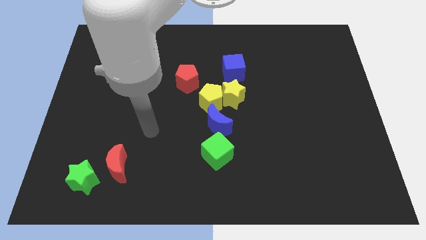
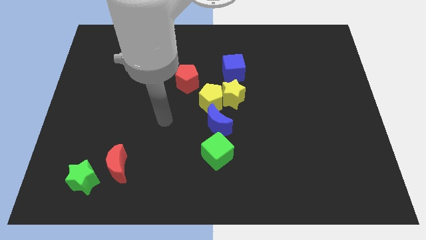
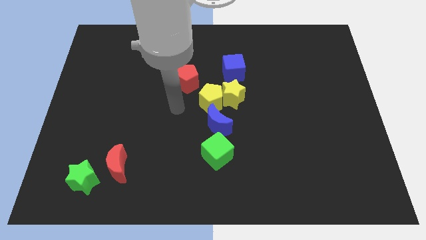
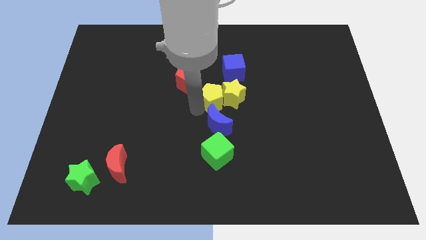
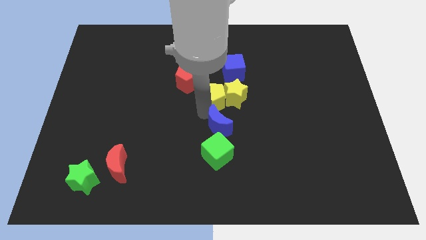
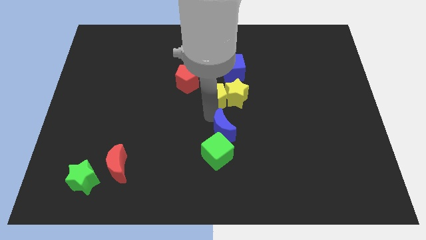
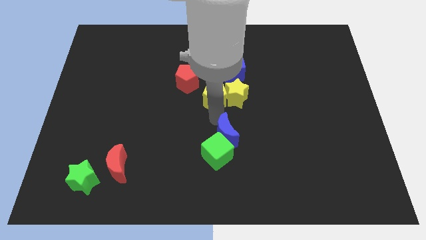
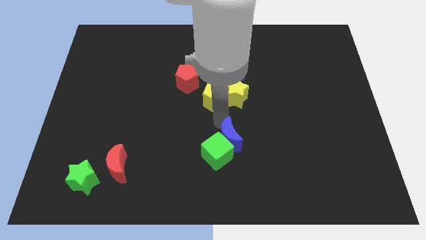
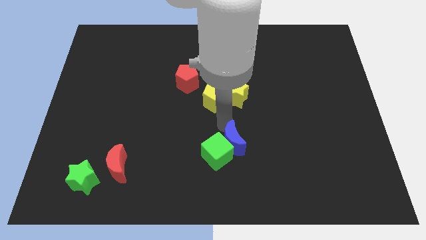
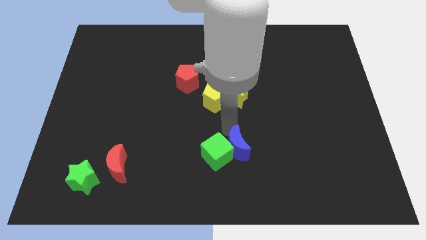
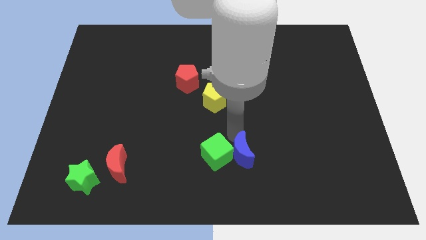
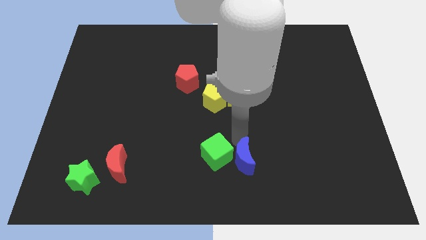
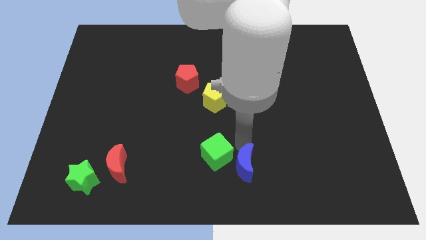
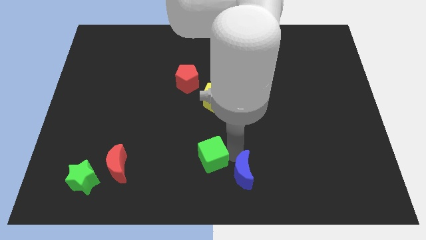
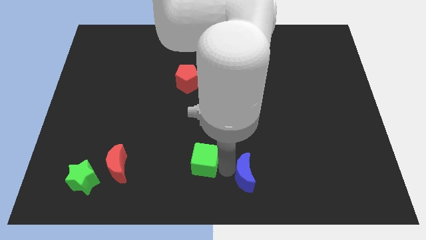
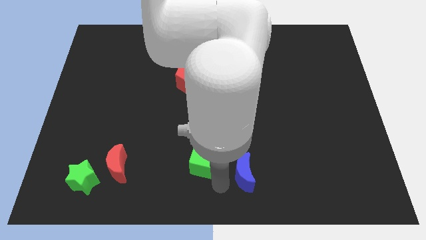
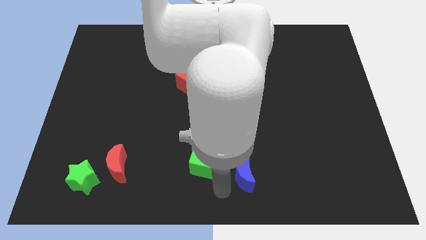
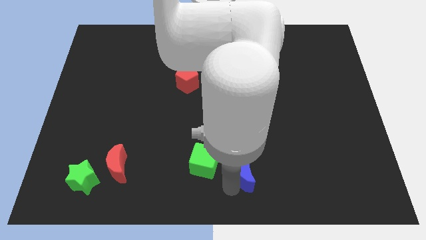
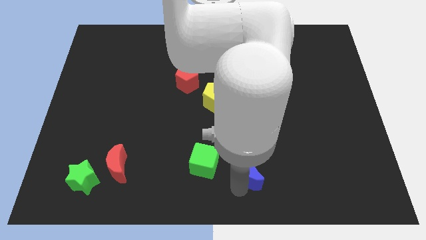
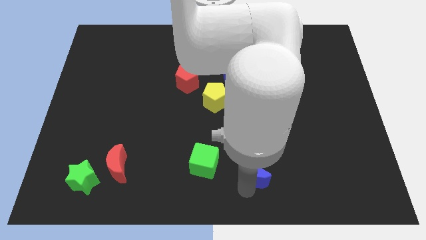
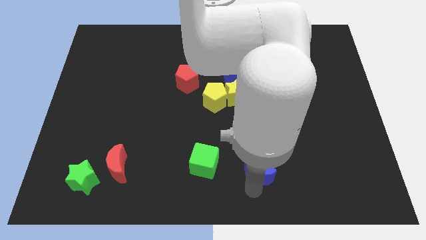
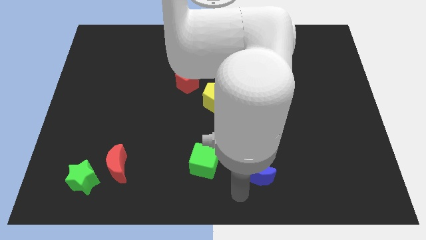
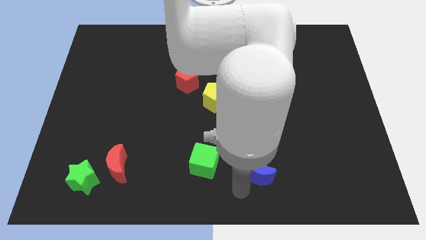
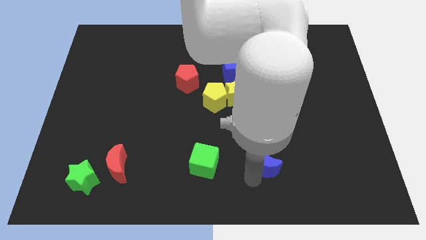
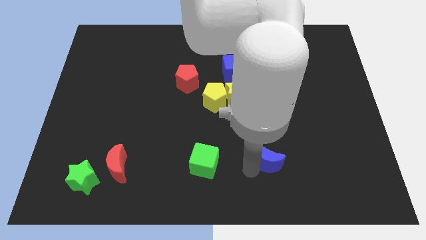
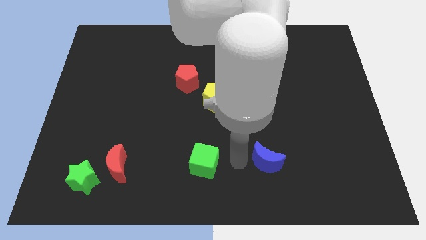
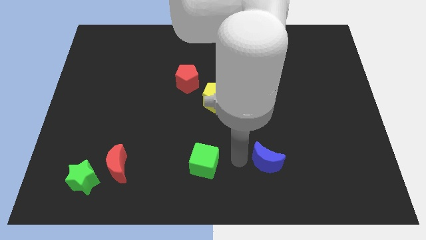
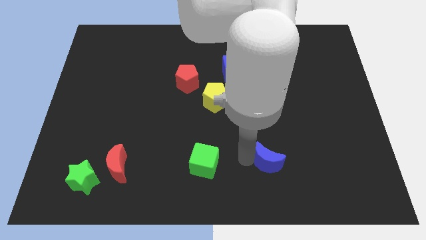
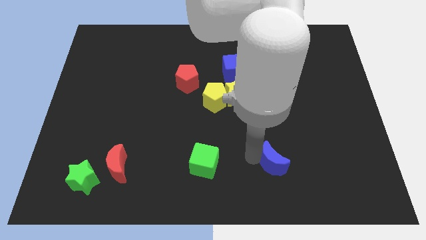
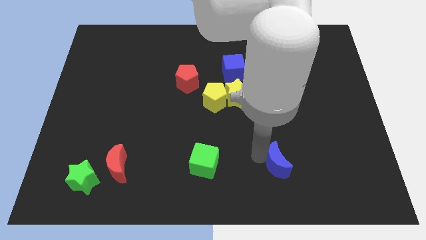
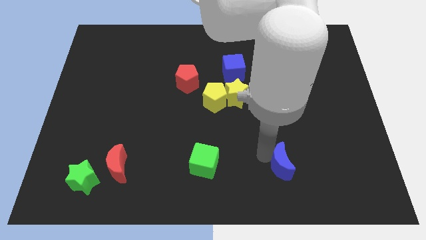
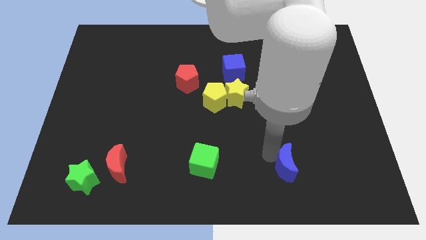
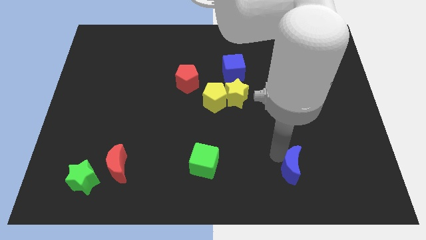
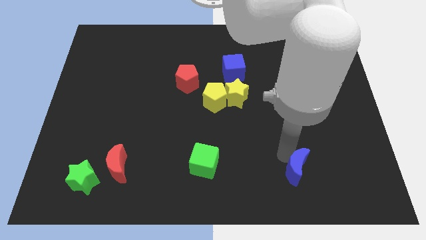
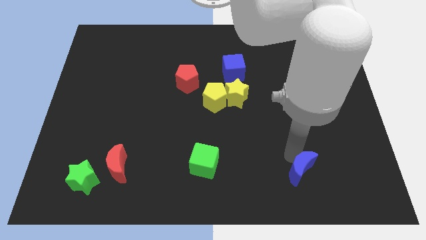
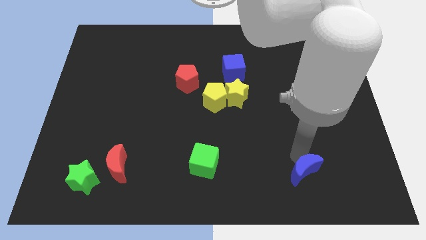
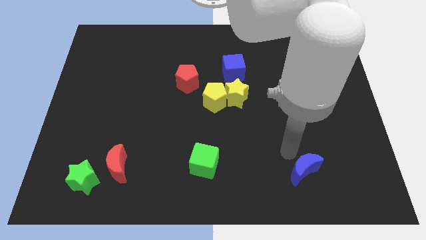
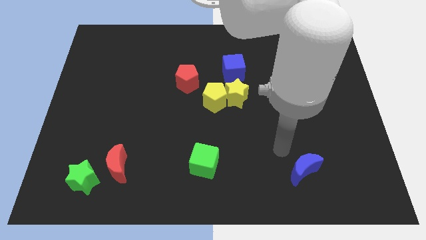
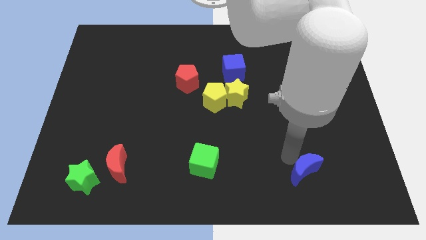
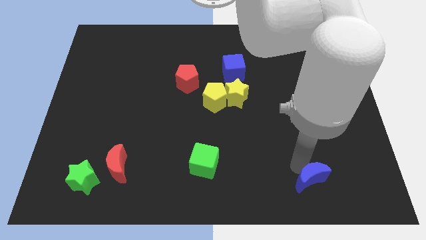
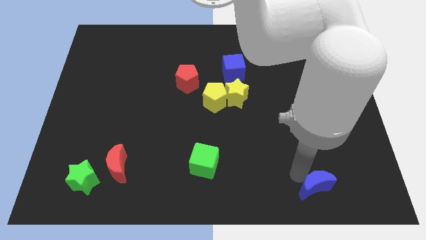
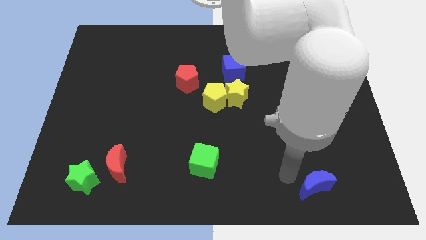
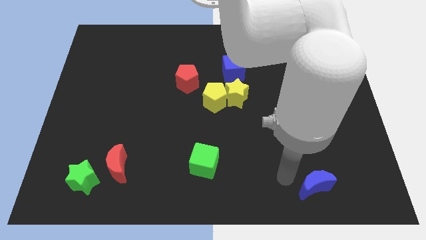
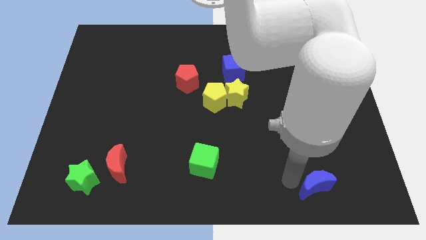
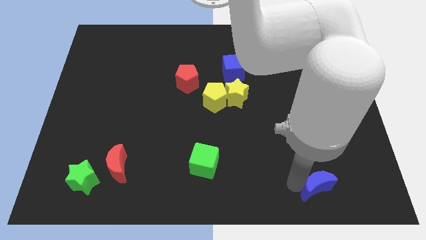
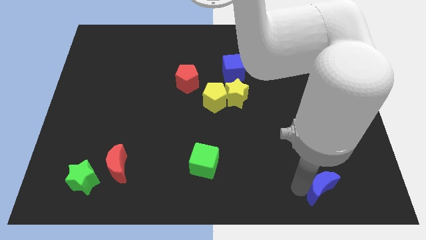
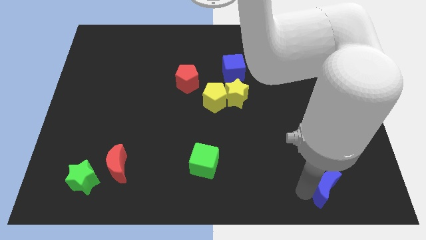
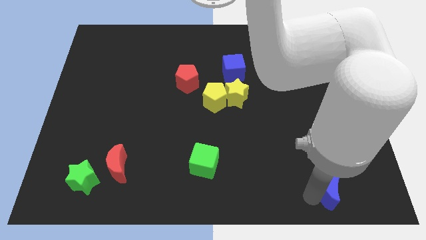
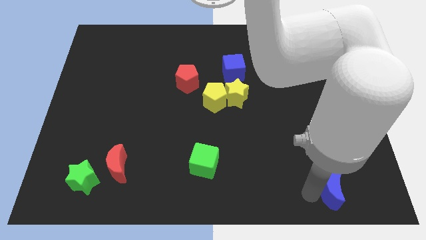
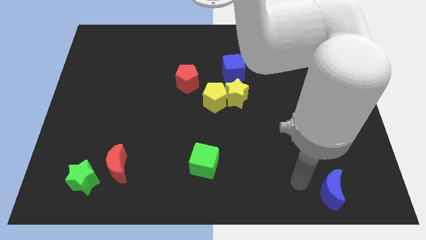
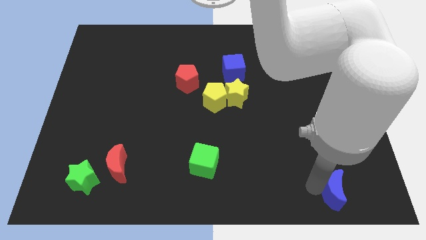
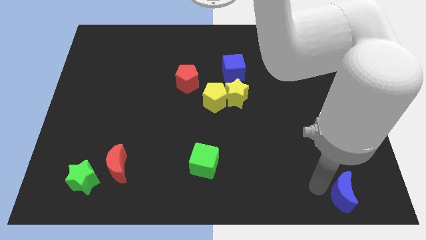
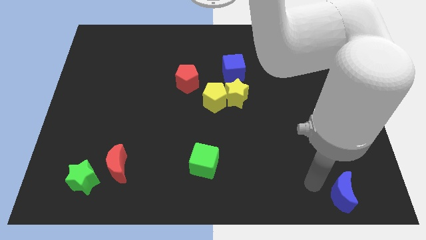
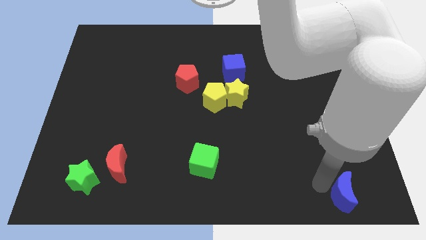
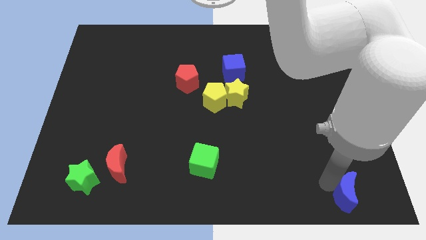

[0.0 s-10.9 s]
move the blue moon to the bottom right corner

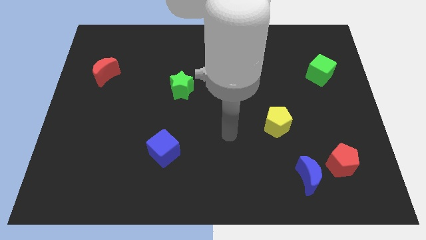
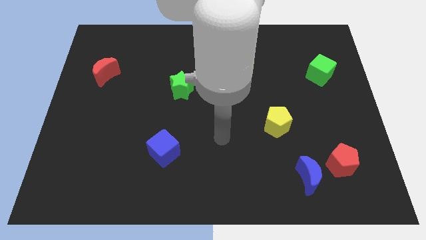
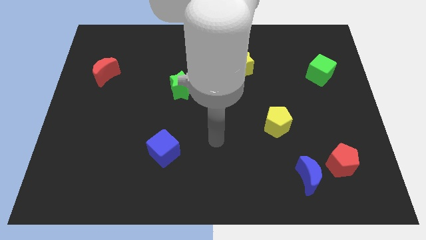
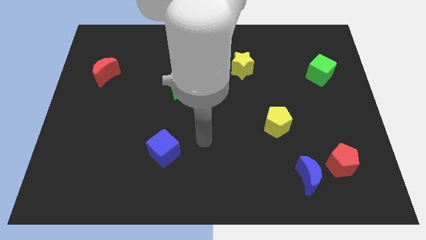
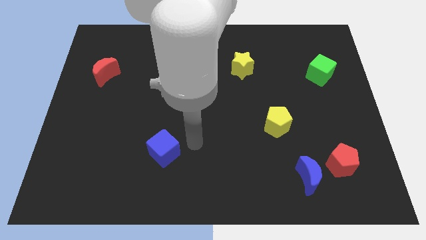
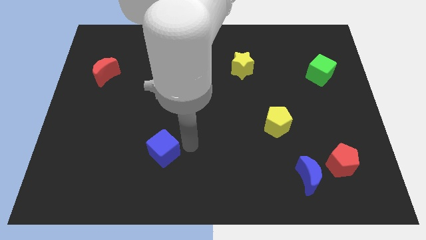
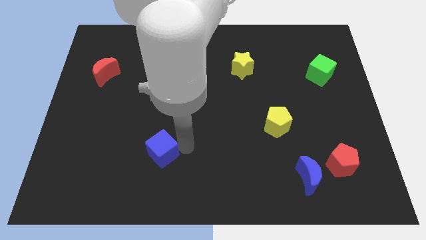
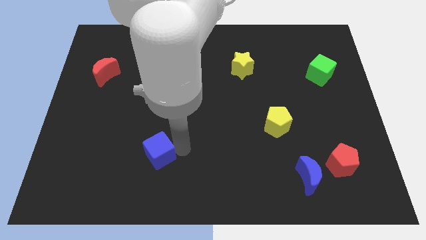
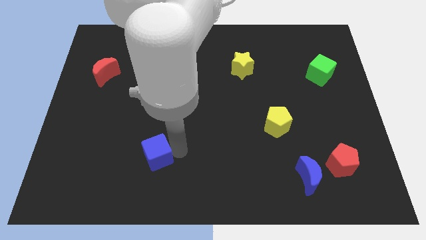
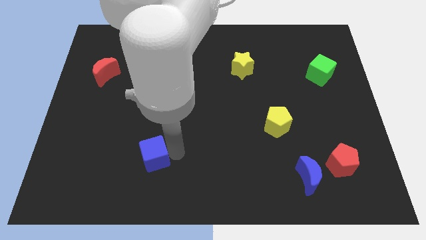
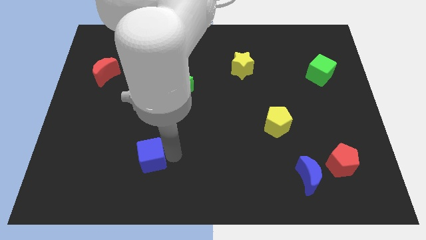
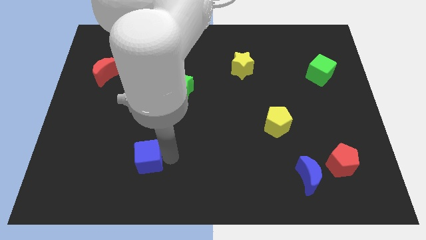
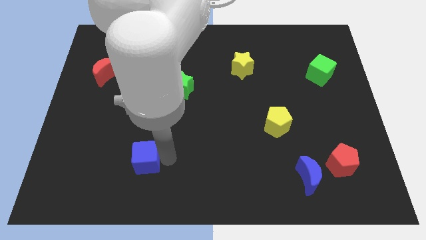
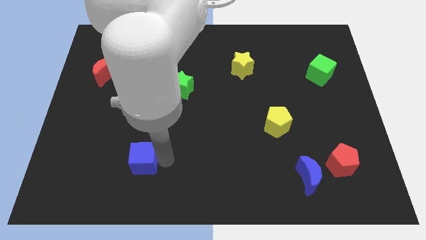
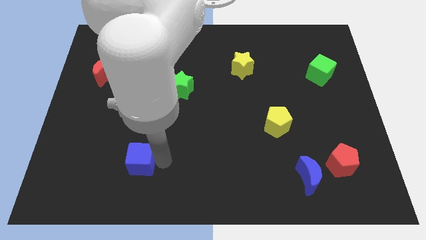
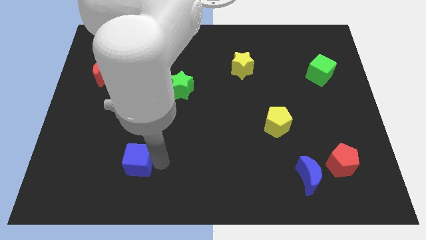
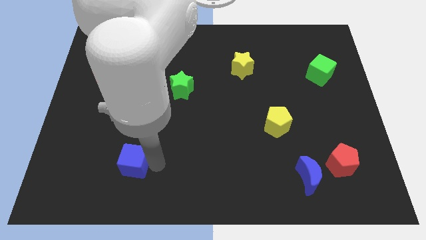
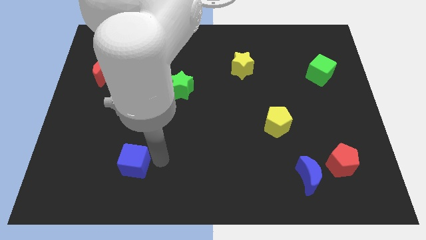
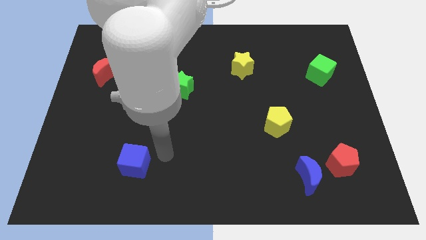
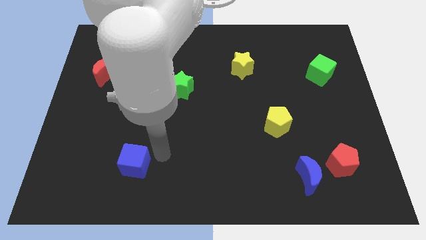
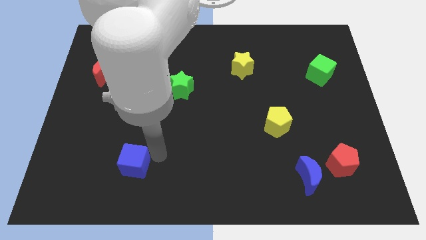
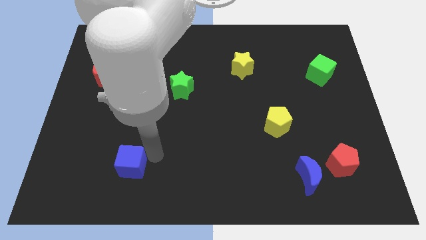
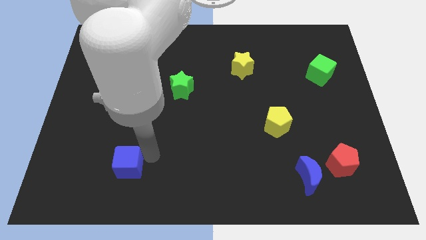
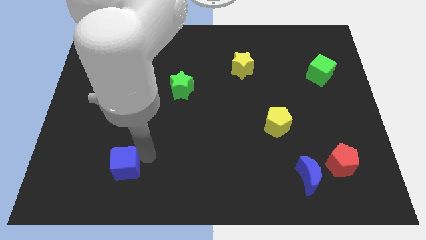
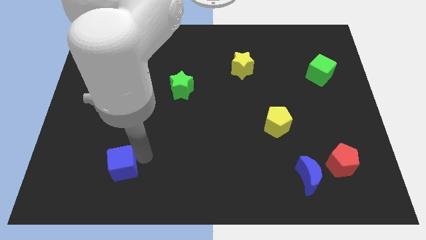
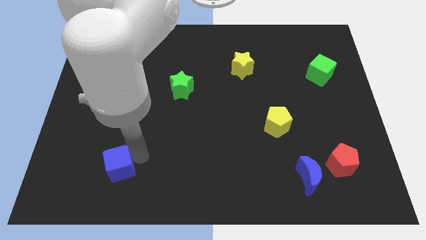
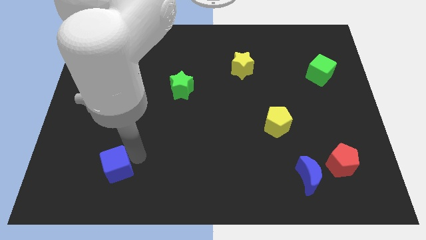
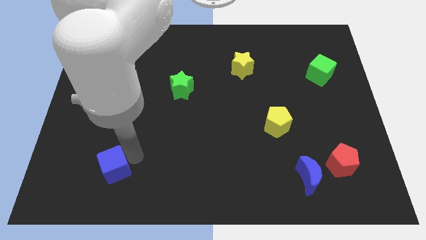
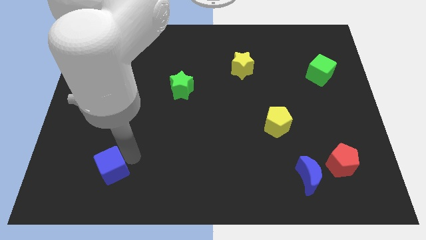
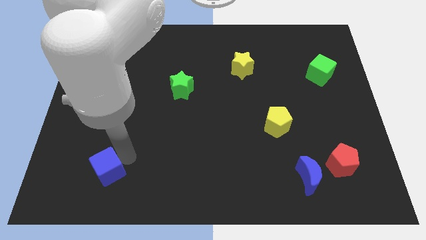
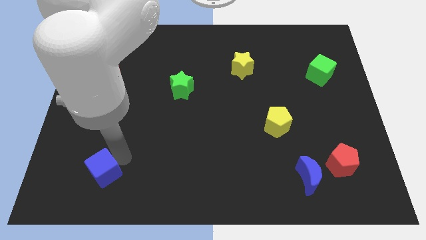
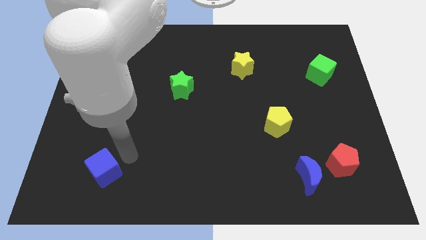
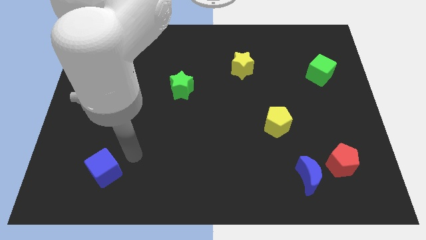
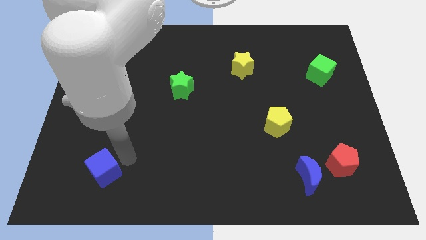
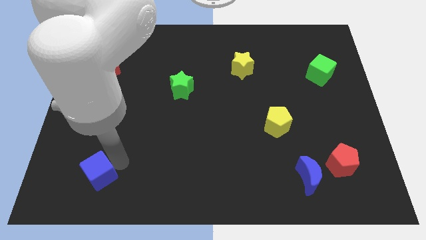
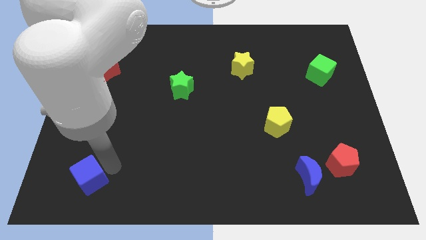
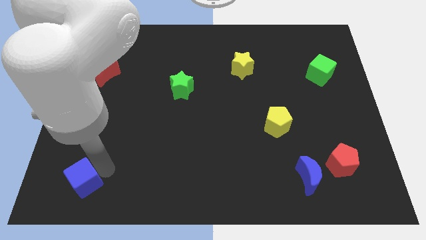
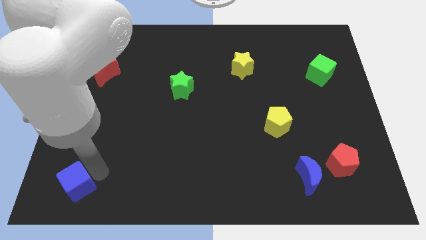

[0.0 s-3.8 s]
put the blue cube to the bottom left corner
